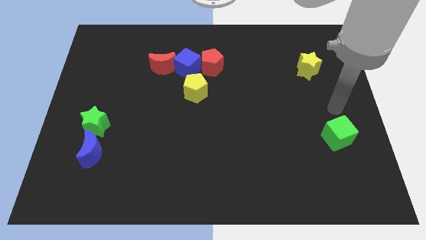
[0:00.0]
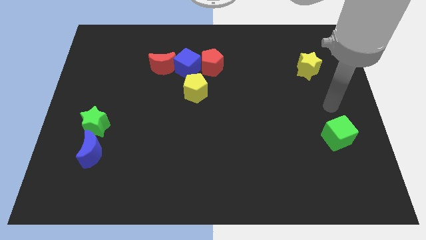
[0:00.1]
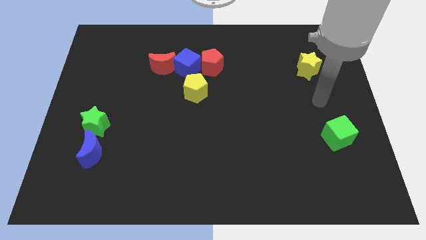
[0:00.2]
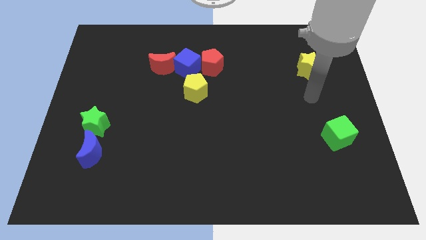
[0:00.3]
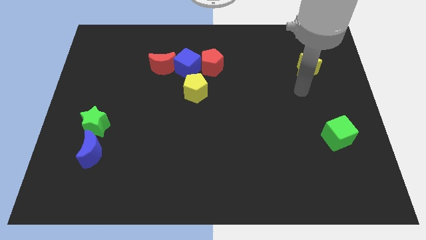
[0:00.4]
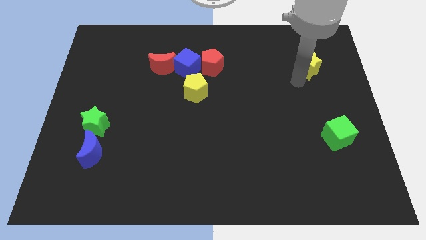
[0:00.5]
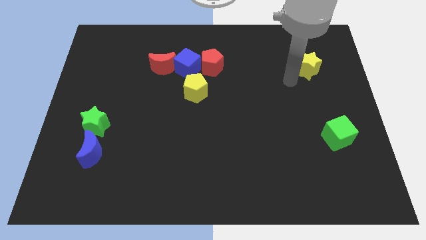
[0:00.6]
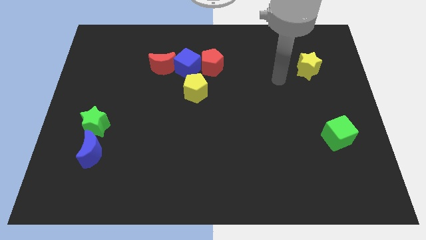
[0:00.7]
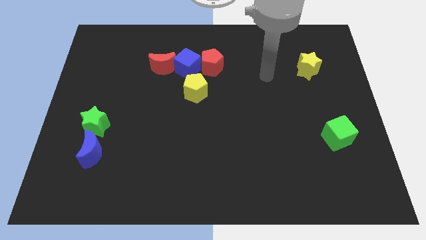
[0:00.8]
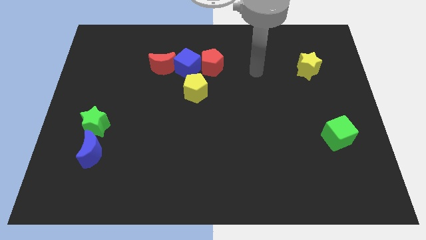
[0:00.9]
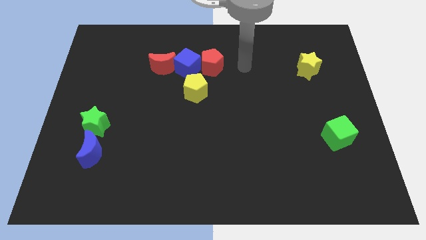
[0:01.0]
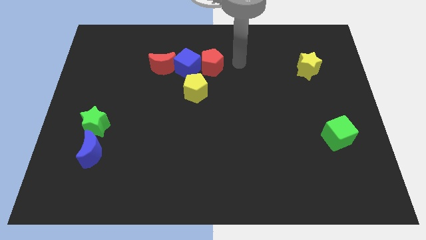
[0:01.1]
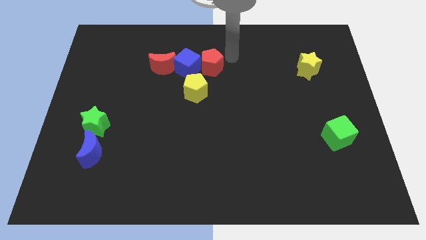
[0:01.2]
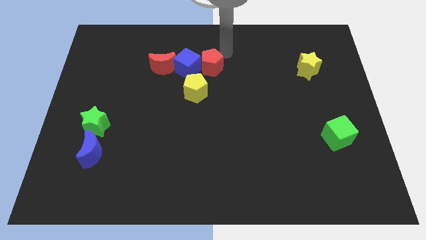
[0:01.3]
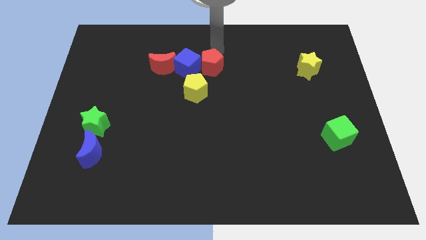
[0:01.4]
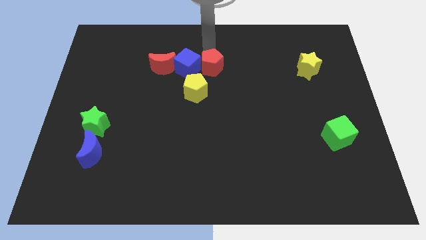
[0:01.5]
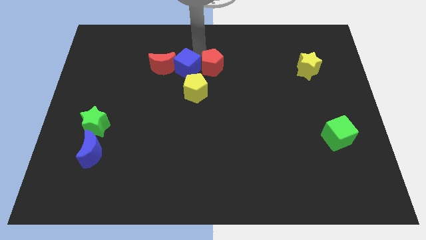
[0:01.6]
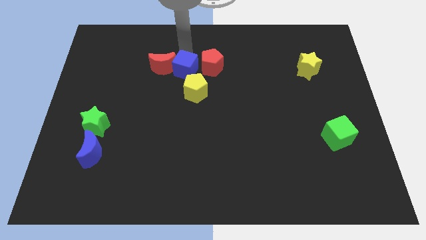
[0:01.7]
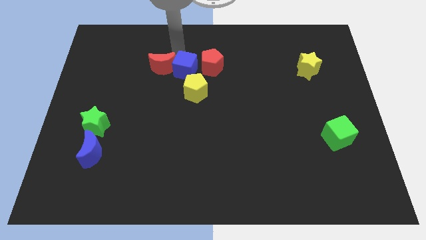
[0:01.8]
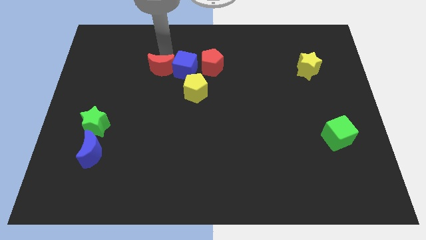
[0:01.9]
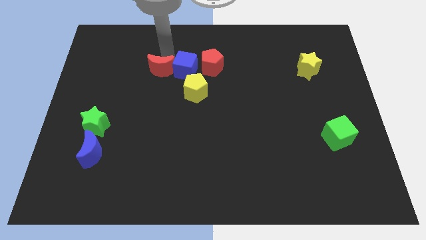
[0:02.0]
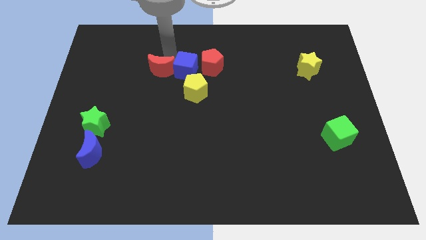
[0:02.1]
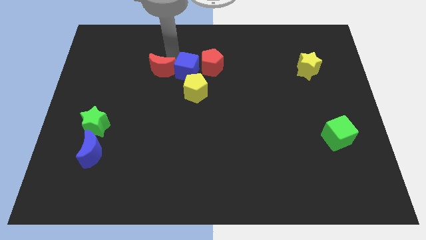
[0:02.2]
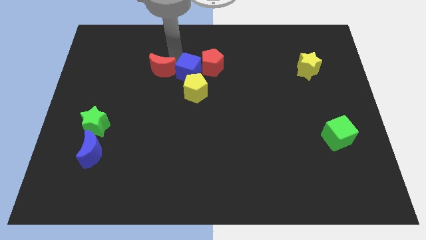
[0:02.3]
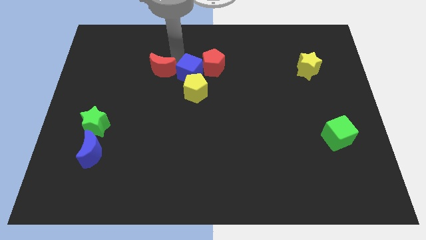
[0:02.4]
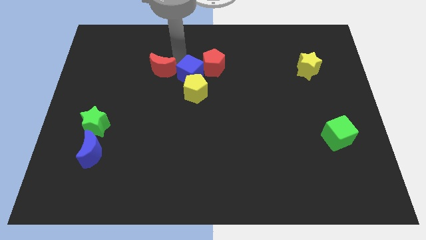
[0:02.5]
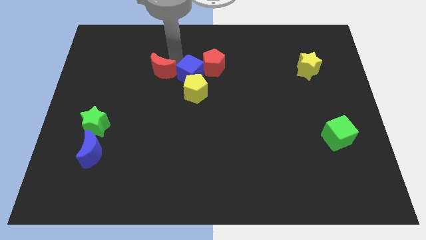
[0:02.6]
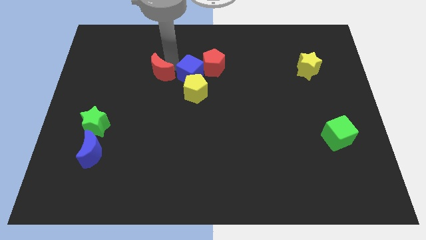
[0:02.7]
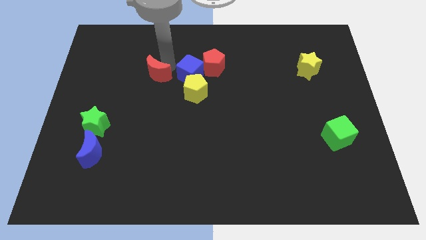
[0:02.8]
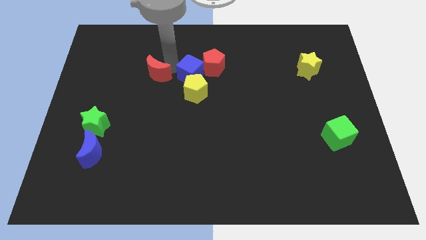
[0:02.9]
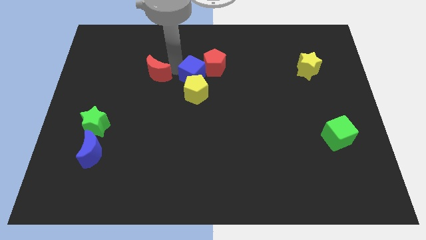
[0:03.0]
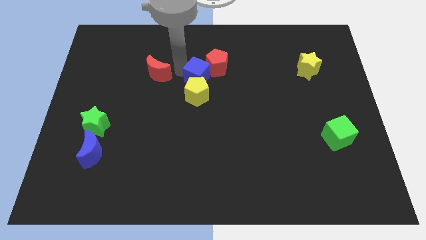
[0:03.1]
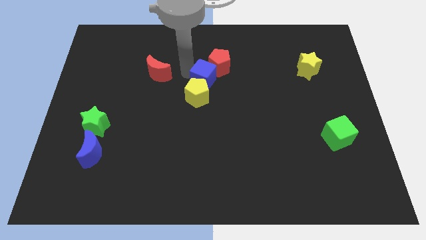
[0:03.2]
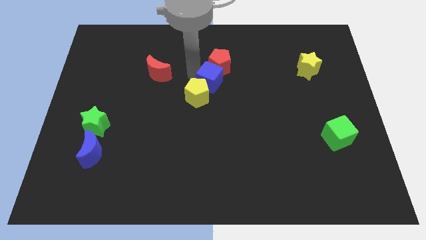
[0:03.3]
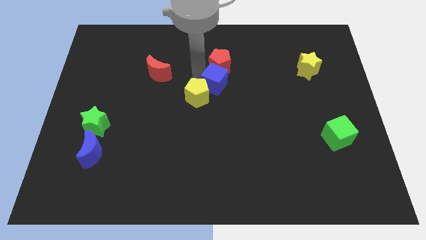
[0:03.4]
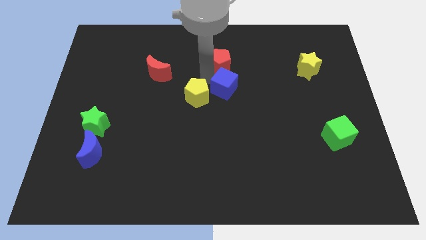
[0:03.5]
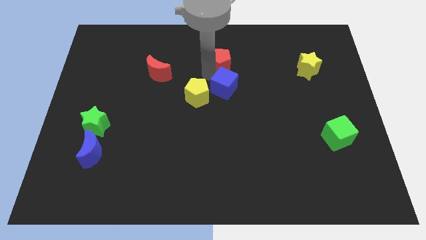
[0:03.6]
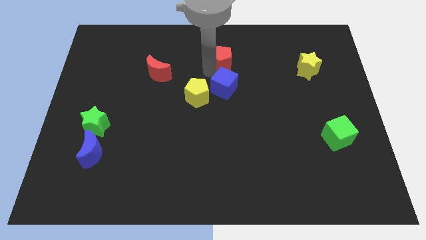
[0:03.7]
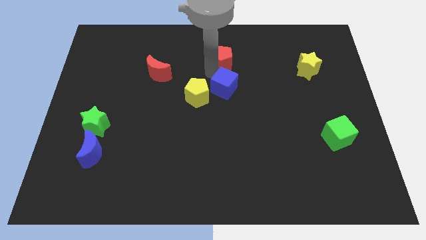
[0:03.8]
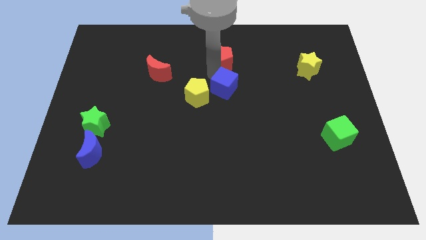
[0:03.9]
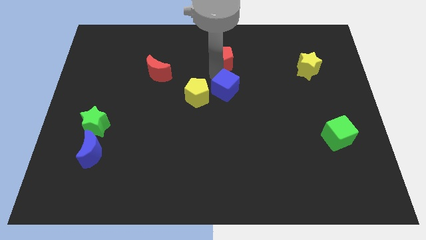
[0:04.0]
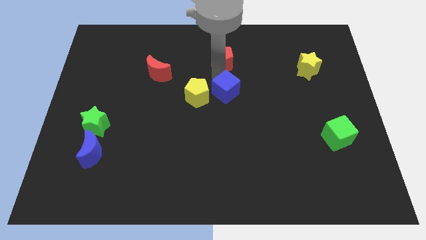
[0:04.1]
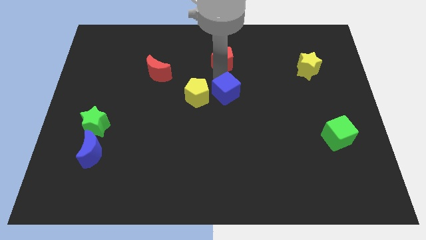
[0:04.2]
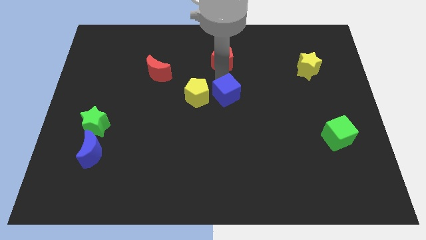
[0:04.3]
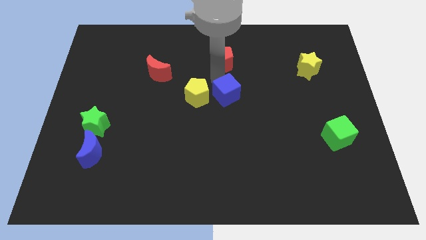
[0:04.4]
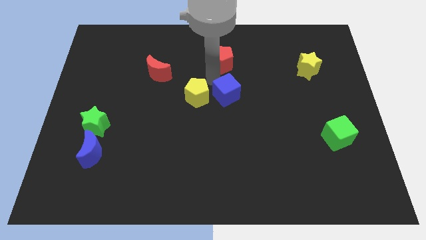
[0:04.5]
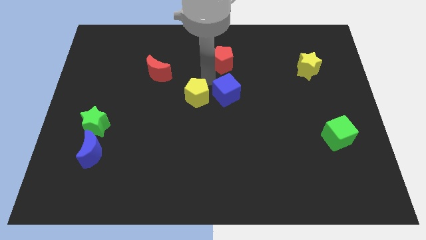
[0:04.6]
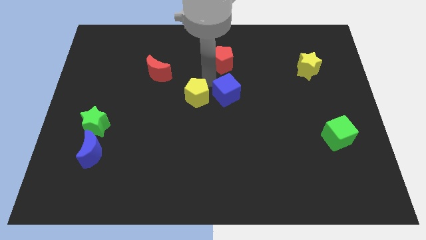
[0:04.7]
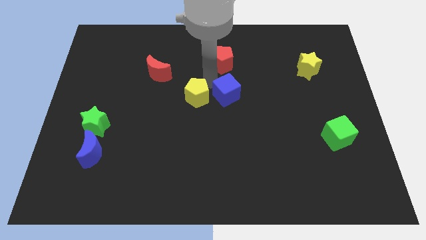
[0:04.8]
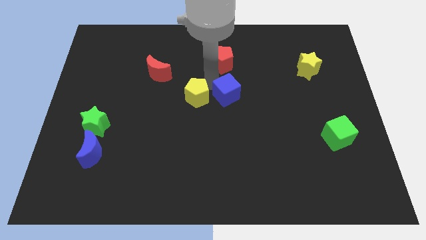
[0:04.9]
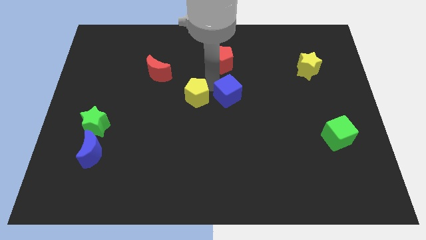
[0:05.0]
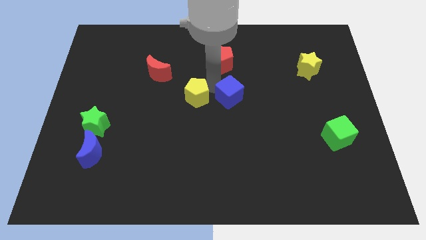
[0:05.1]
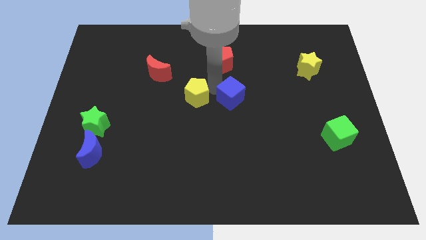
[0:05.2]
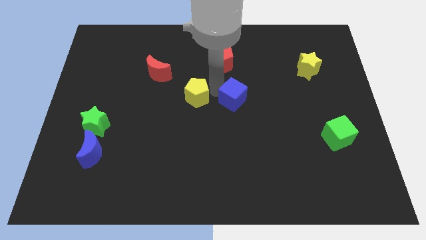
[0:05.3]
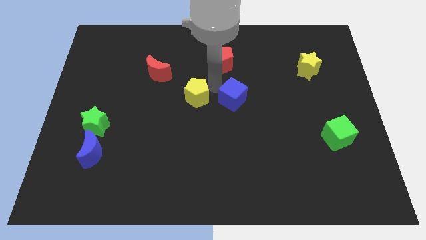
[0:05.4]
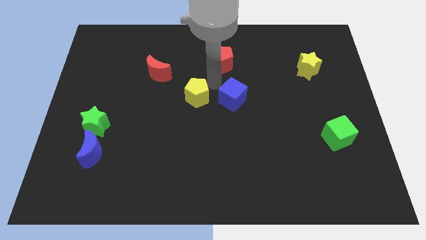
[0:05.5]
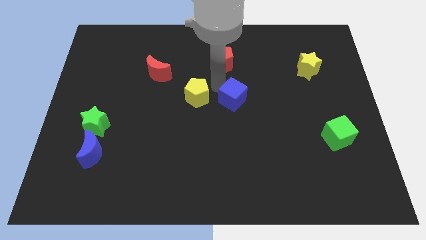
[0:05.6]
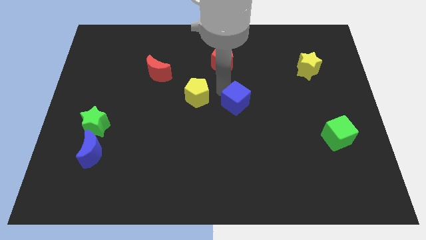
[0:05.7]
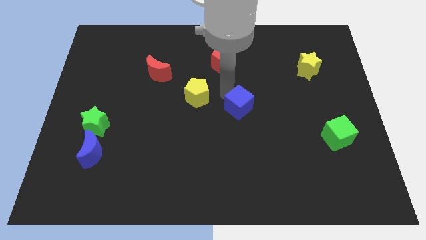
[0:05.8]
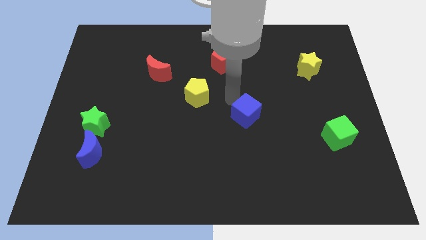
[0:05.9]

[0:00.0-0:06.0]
slide the blue cube diagonally downwards and right

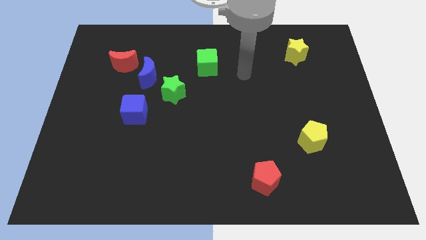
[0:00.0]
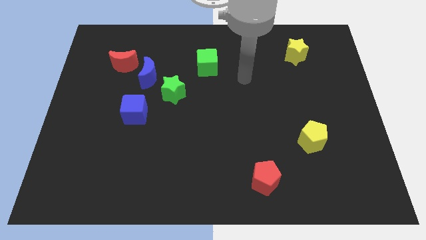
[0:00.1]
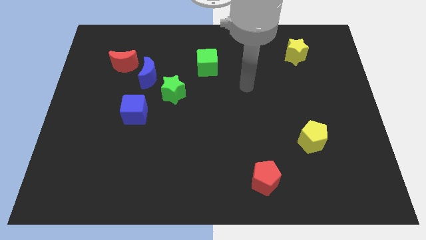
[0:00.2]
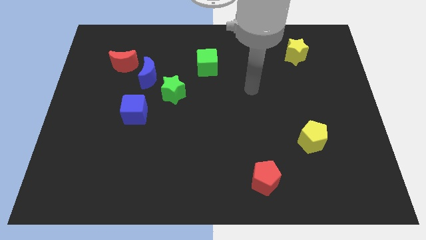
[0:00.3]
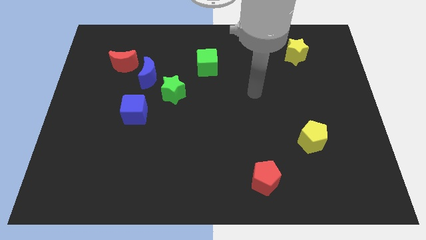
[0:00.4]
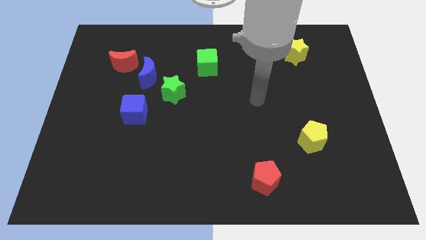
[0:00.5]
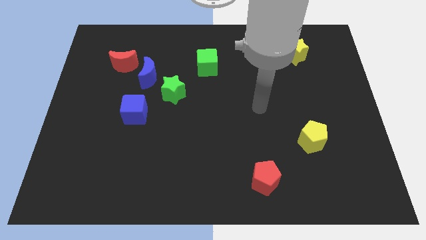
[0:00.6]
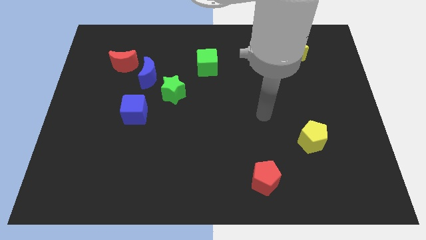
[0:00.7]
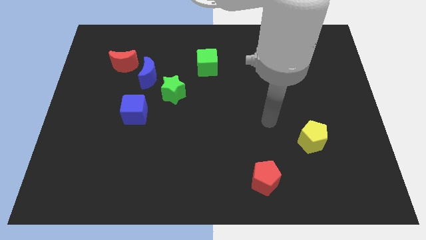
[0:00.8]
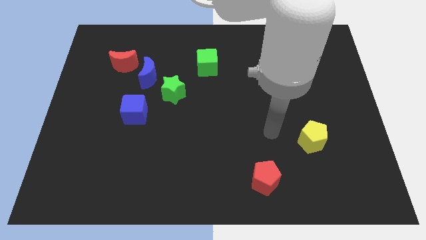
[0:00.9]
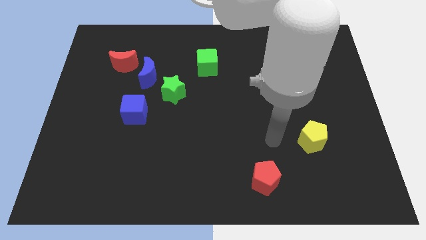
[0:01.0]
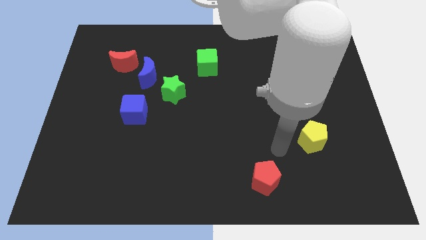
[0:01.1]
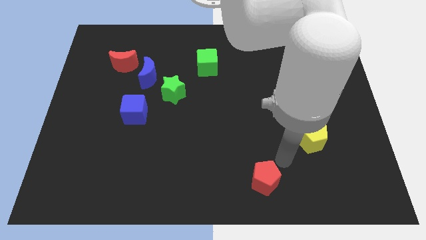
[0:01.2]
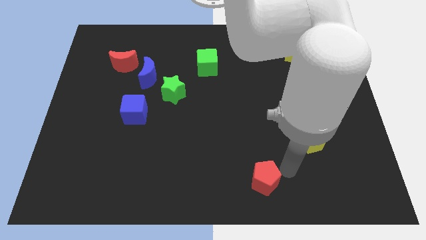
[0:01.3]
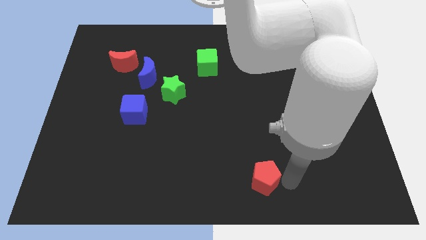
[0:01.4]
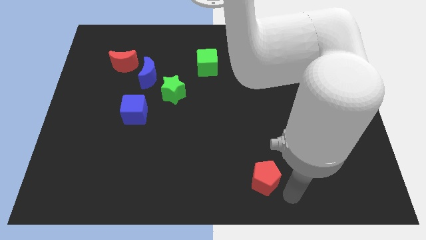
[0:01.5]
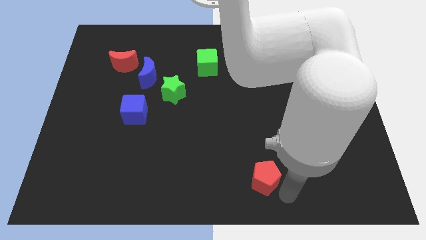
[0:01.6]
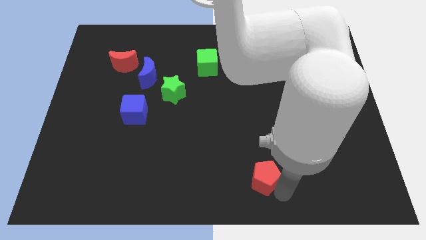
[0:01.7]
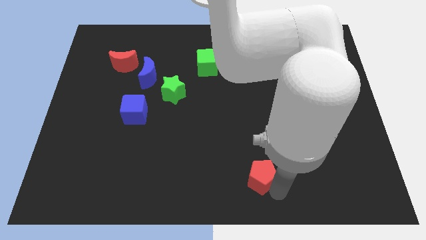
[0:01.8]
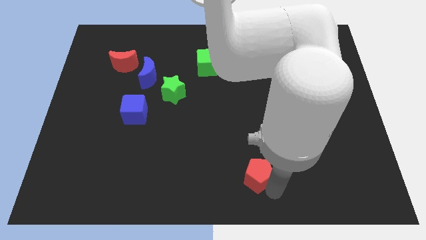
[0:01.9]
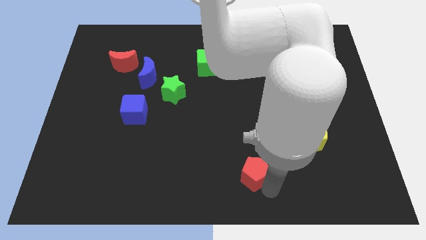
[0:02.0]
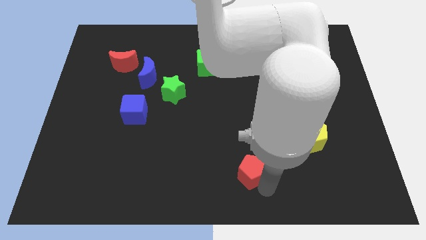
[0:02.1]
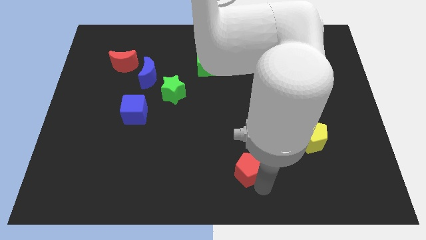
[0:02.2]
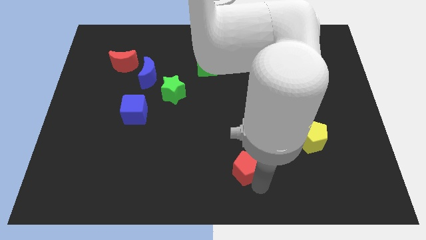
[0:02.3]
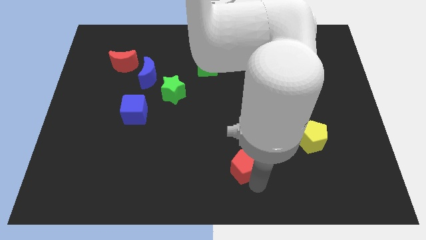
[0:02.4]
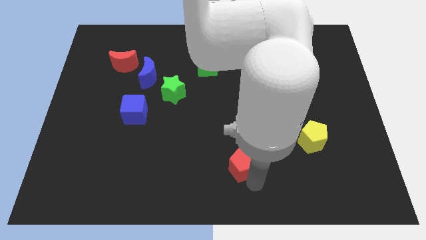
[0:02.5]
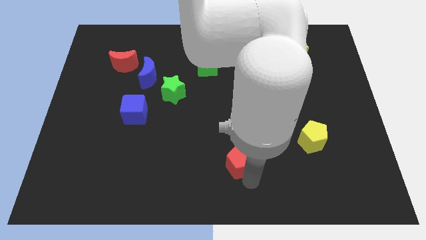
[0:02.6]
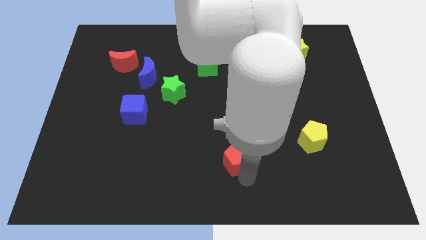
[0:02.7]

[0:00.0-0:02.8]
slide the red pentagon a little bit upwards and left diagonally
